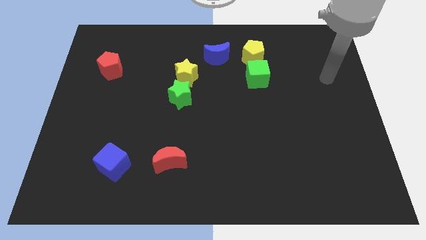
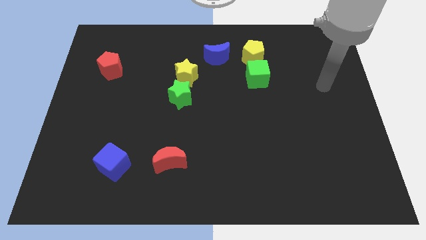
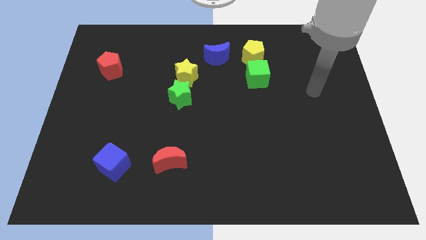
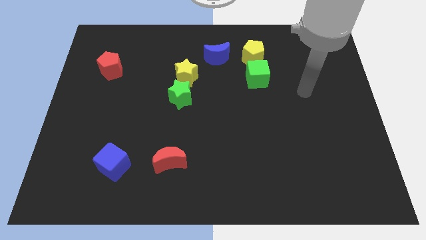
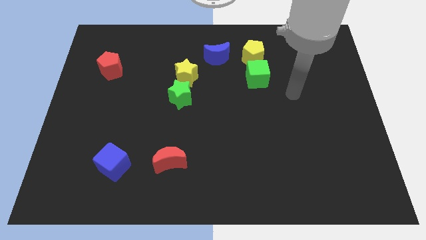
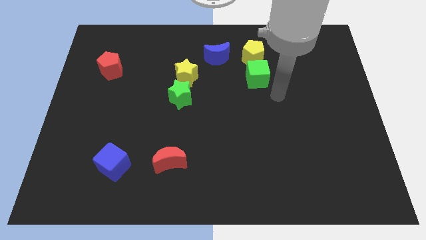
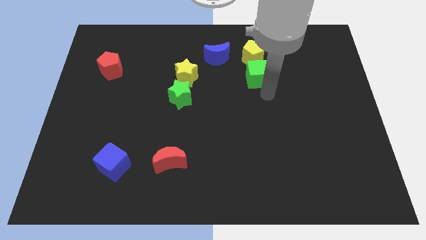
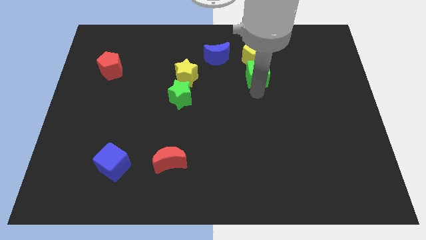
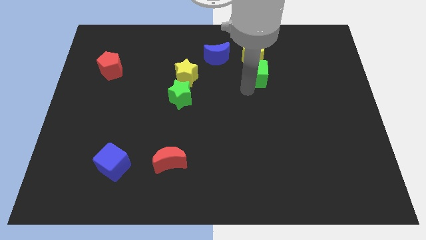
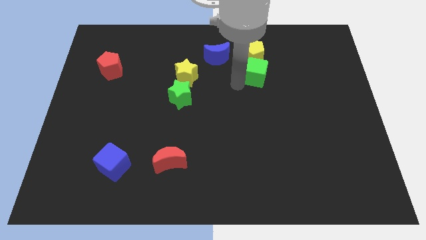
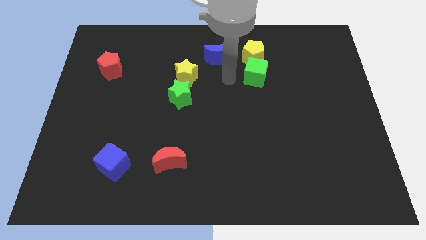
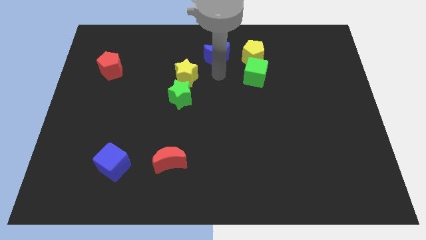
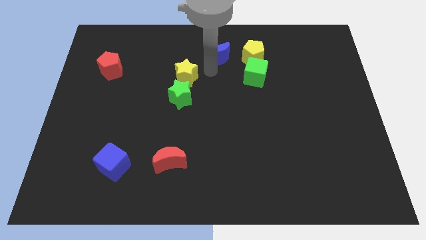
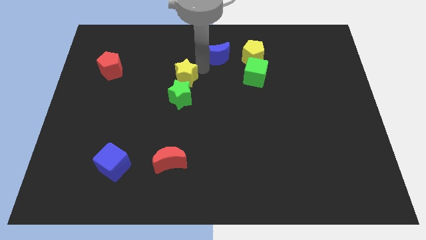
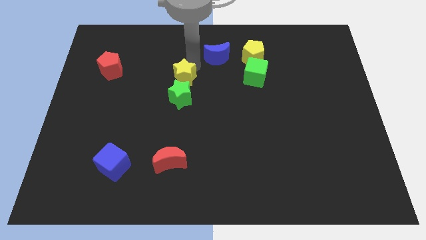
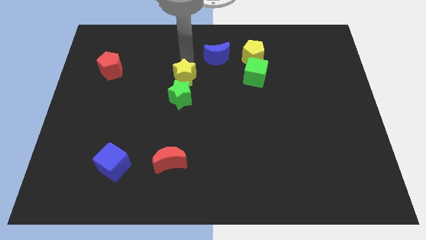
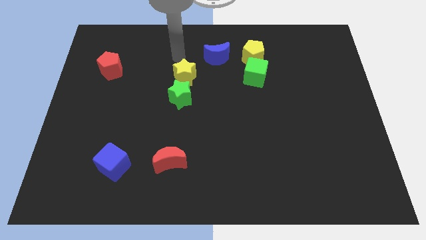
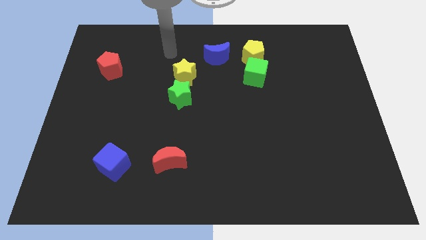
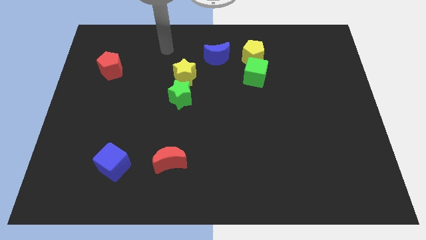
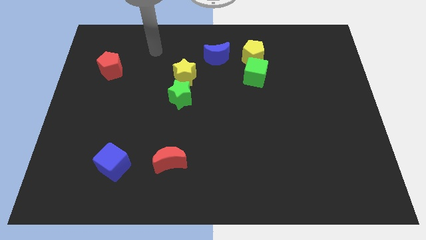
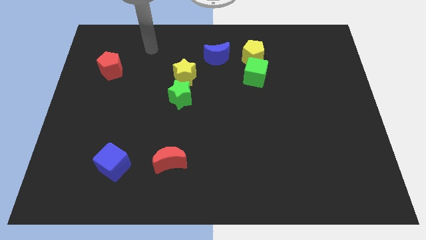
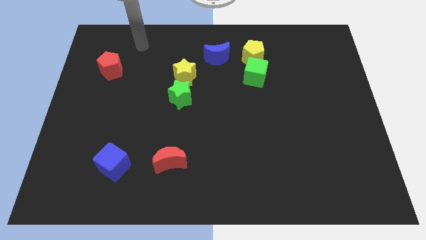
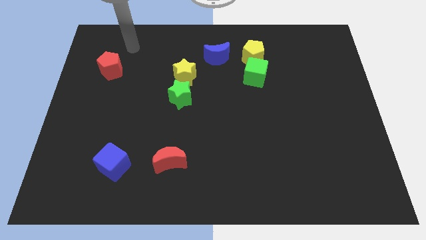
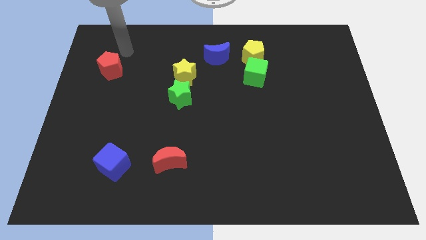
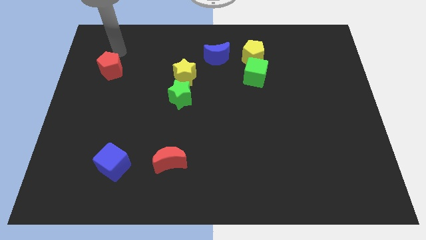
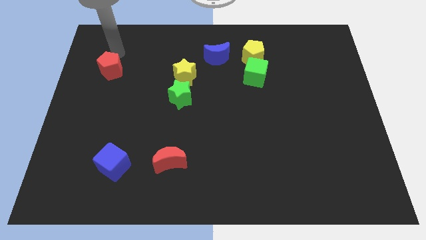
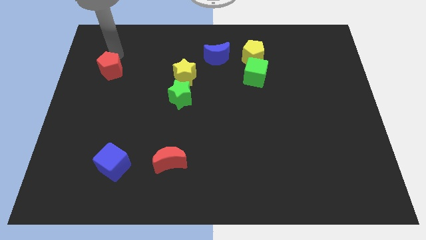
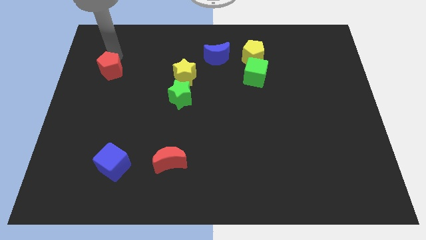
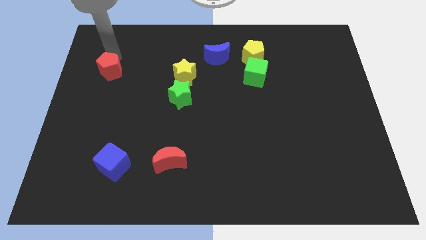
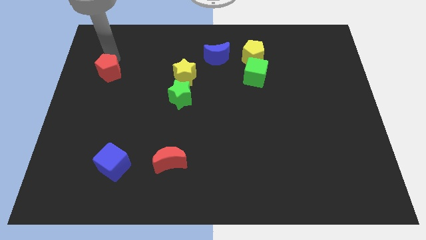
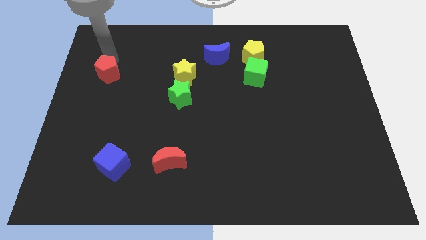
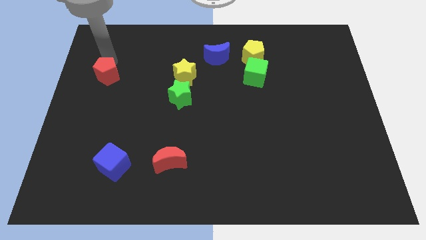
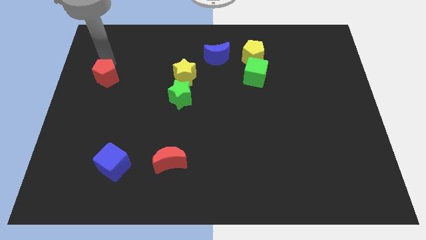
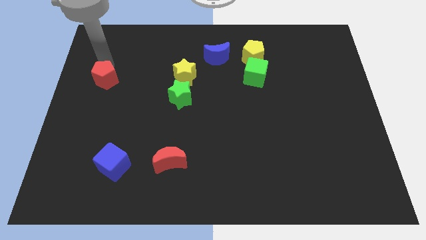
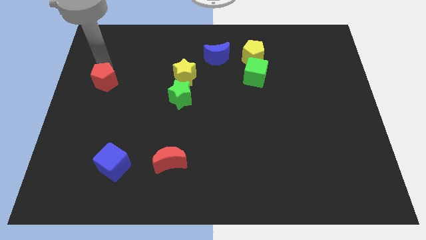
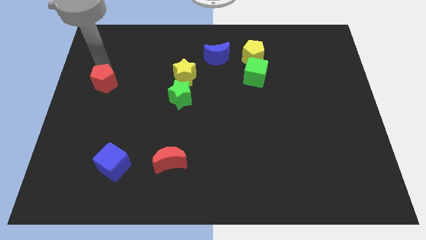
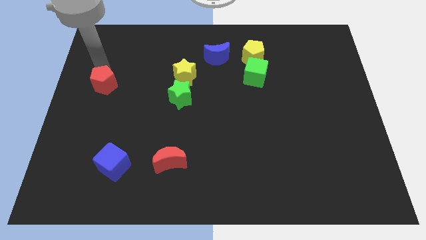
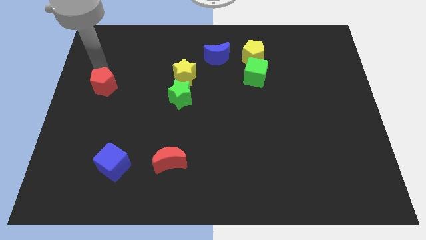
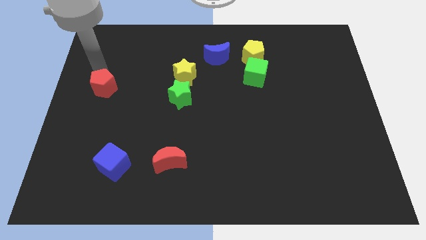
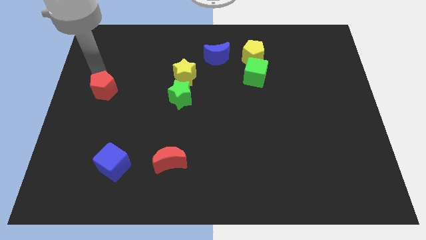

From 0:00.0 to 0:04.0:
push the red pentagon somewhat down

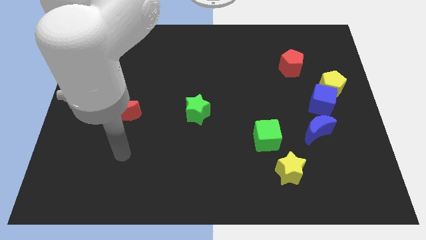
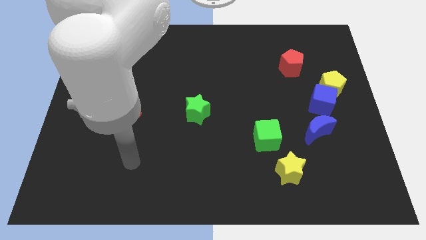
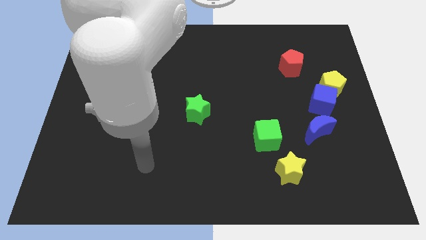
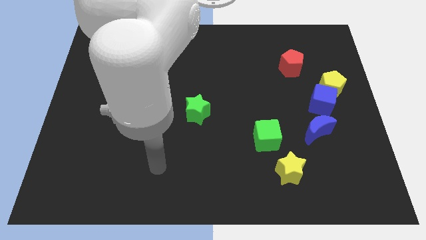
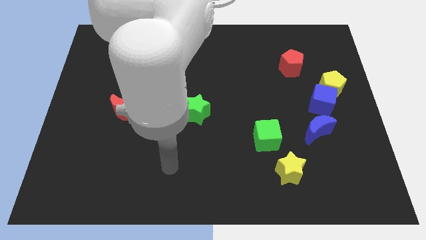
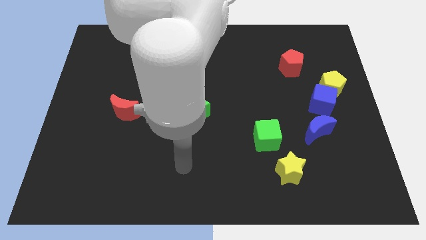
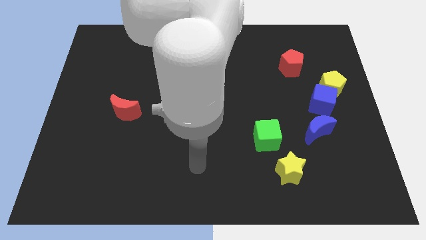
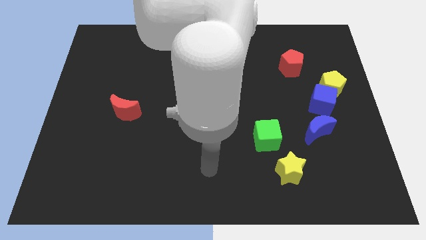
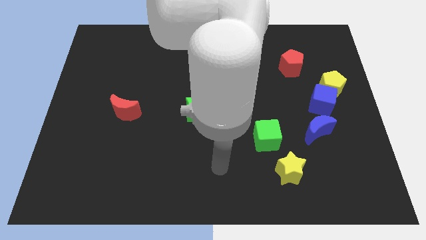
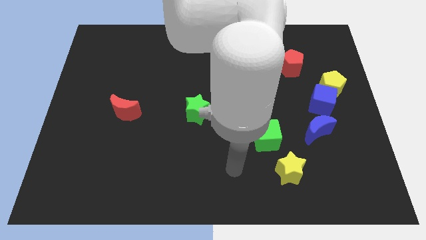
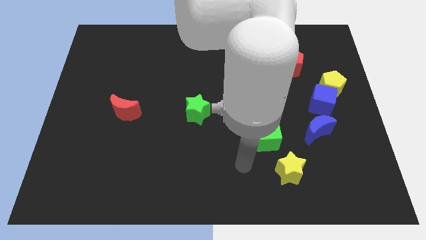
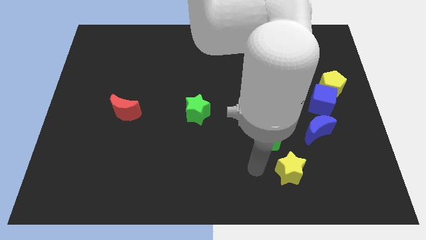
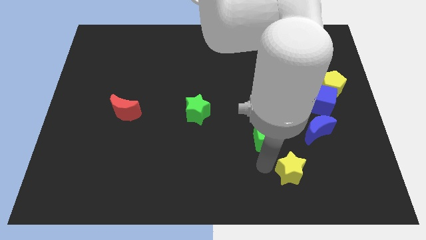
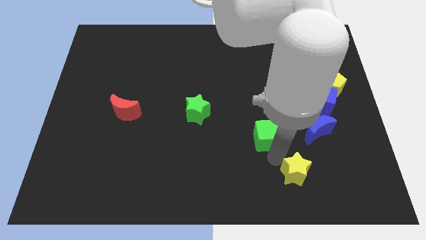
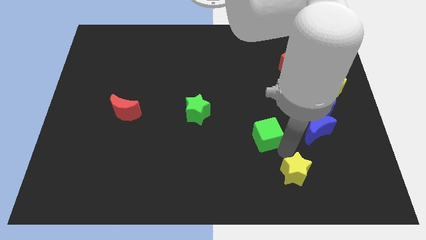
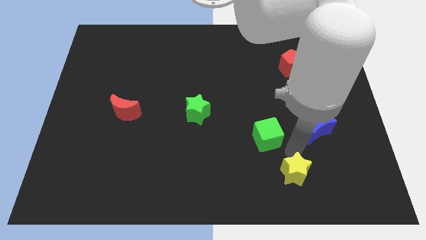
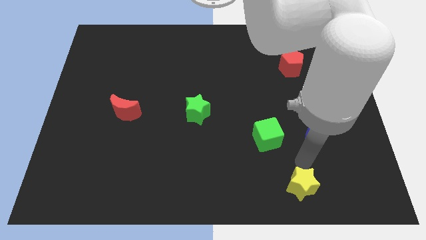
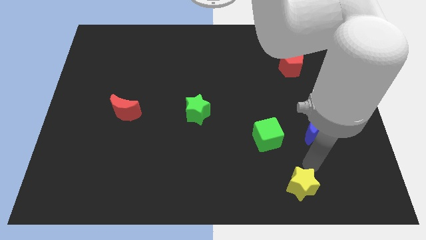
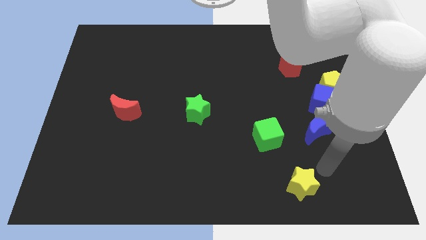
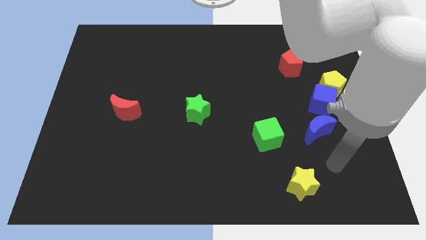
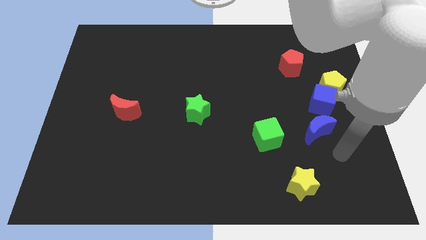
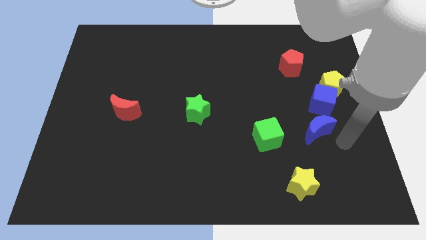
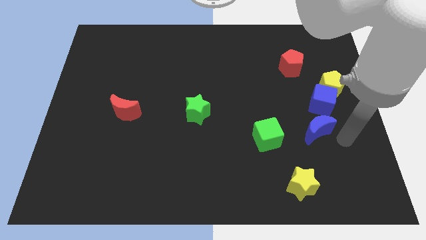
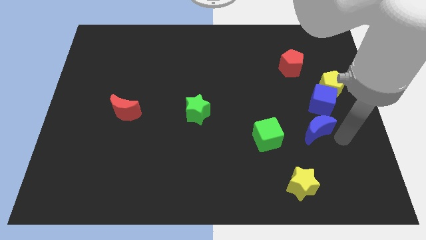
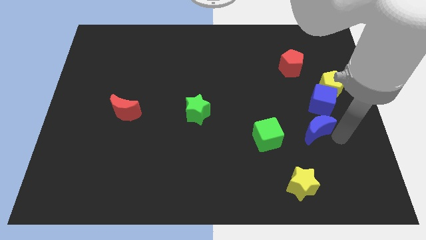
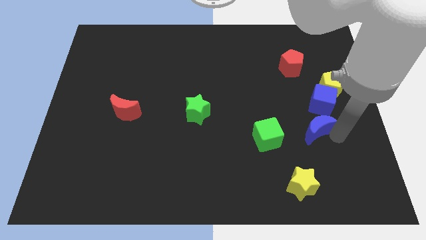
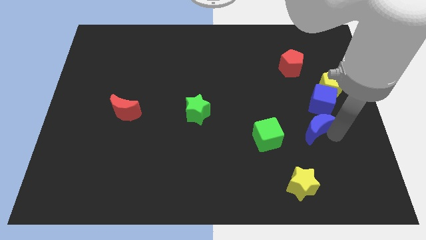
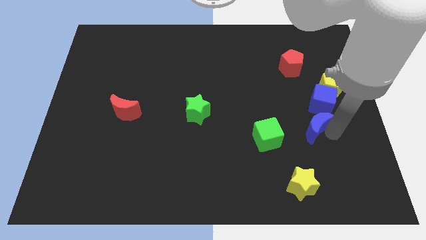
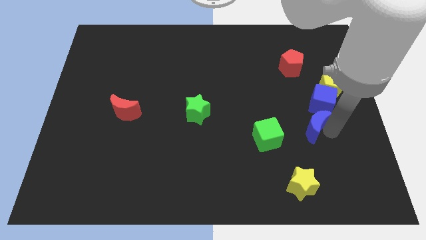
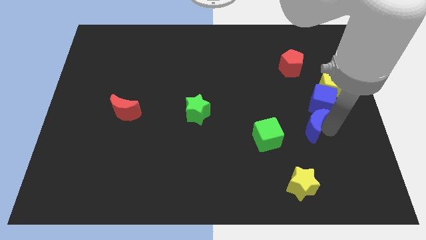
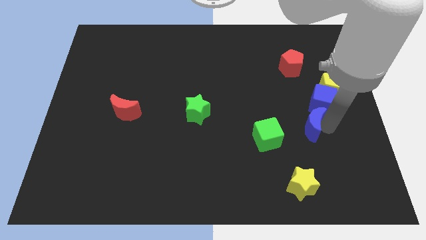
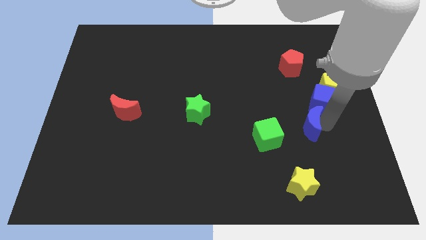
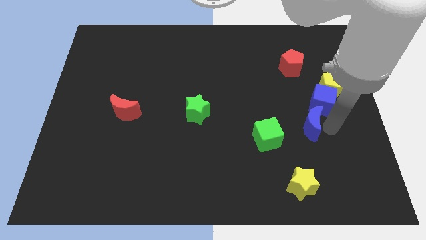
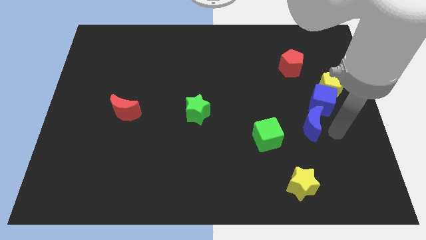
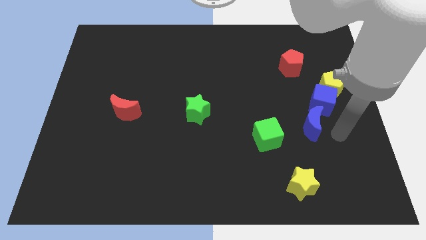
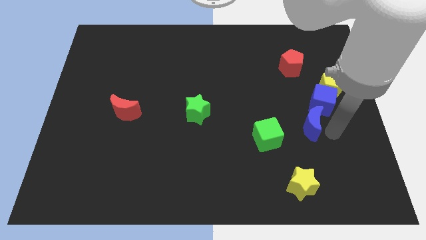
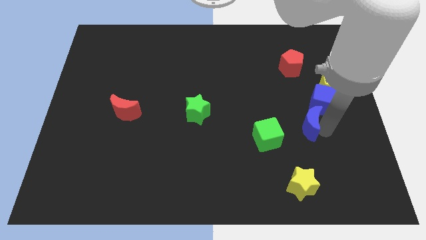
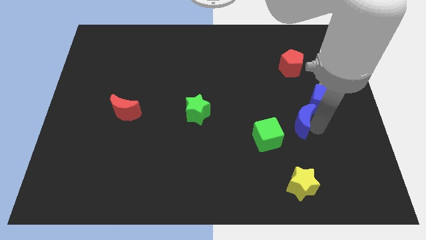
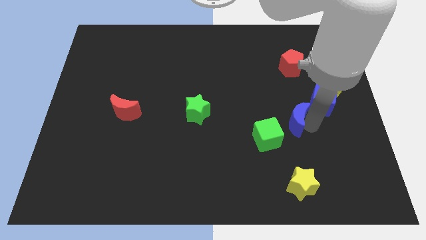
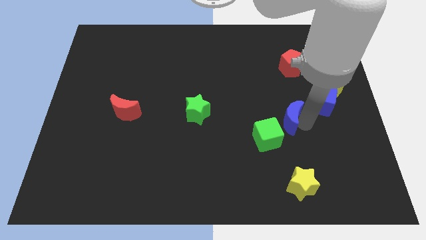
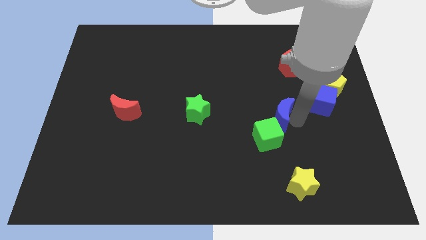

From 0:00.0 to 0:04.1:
slightly move the blue moon left
